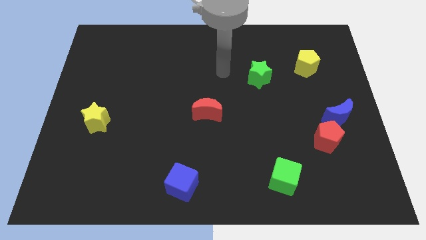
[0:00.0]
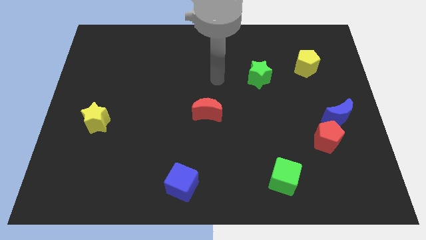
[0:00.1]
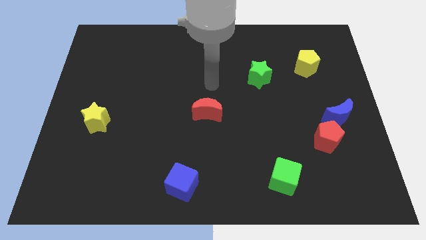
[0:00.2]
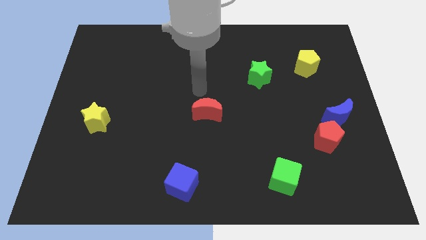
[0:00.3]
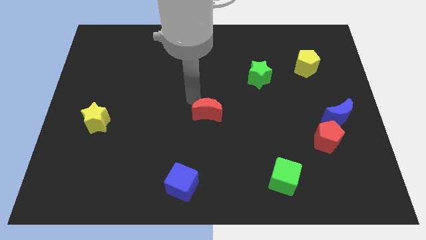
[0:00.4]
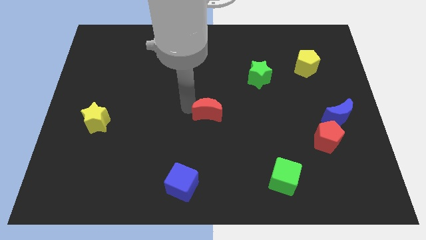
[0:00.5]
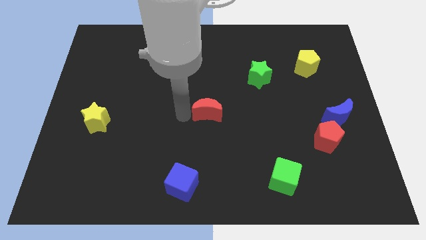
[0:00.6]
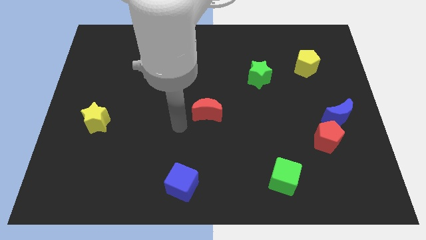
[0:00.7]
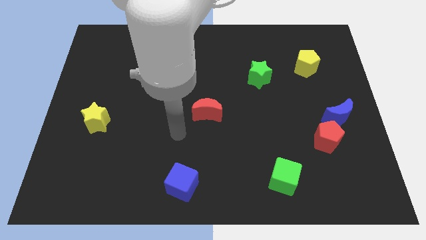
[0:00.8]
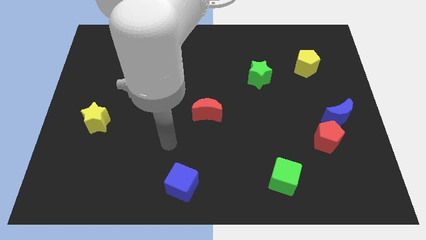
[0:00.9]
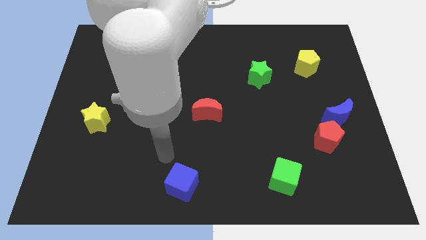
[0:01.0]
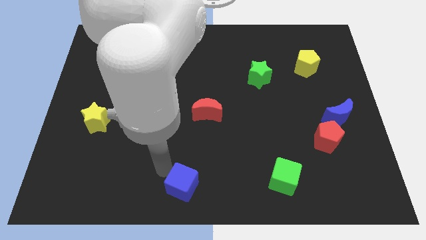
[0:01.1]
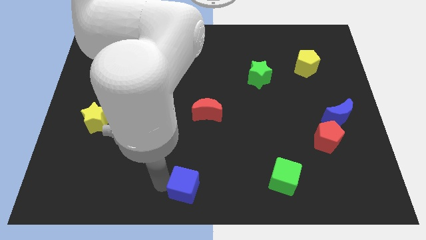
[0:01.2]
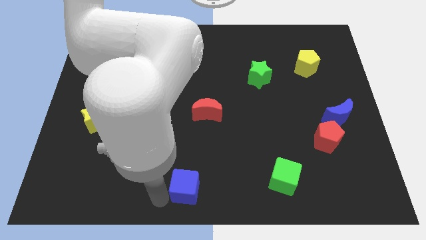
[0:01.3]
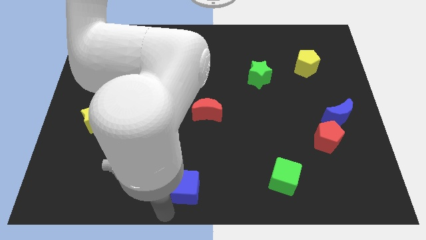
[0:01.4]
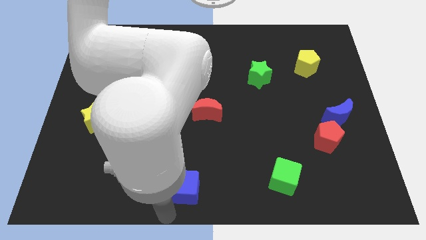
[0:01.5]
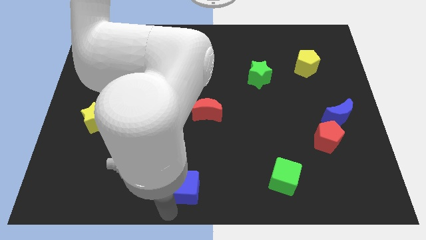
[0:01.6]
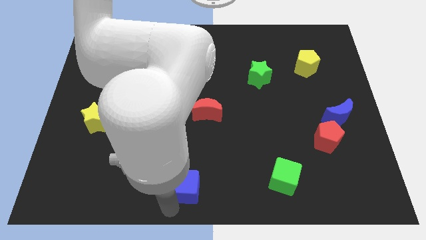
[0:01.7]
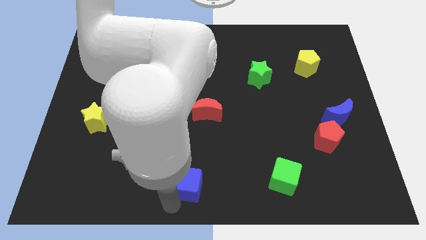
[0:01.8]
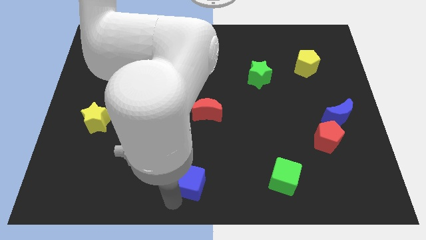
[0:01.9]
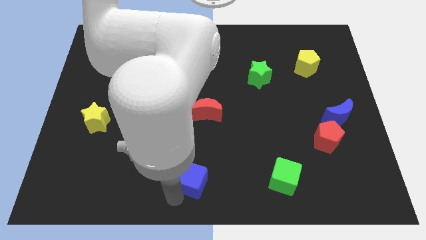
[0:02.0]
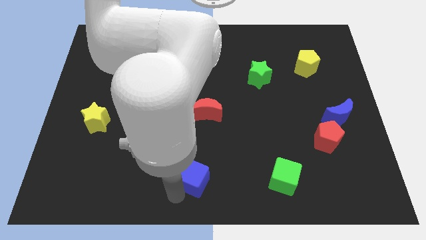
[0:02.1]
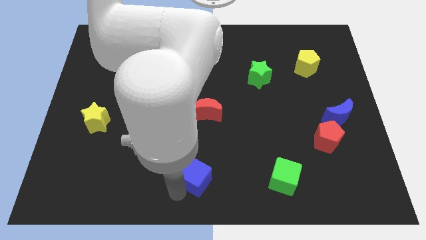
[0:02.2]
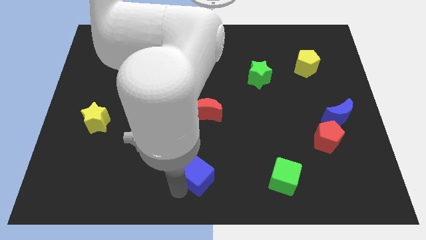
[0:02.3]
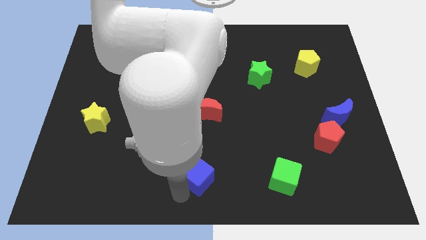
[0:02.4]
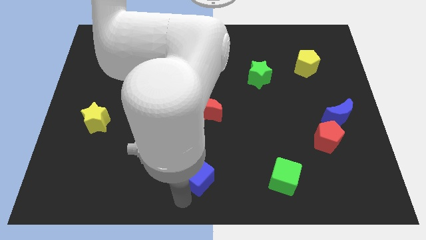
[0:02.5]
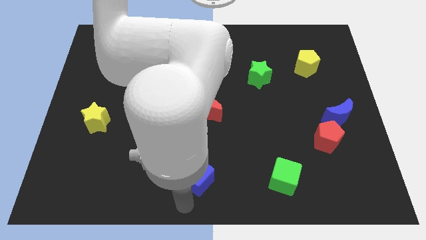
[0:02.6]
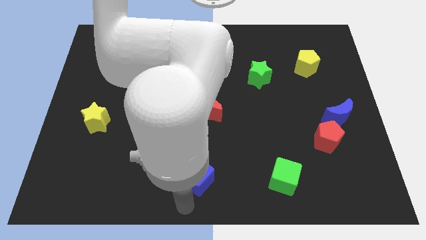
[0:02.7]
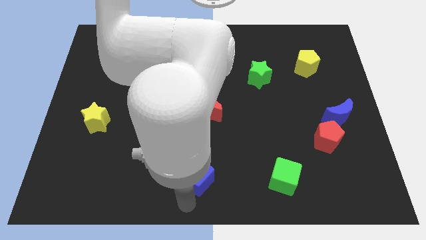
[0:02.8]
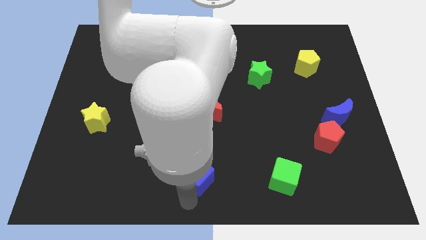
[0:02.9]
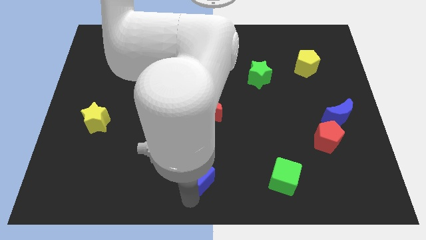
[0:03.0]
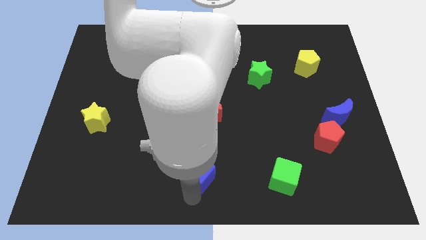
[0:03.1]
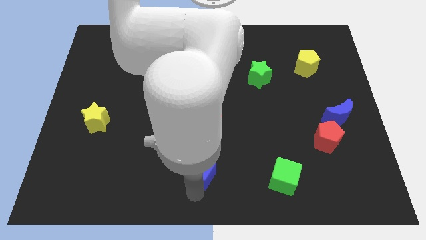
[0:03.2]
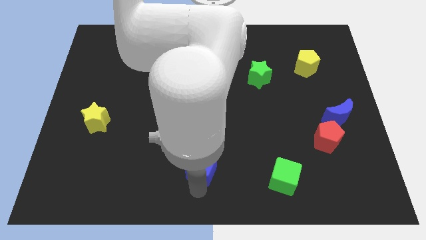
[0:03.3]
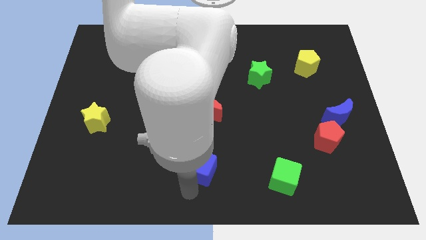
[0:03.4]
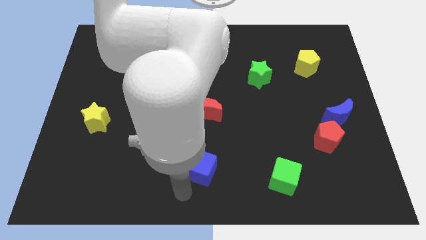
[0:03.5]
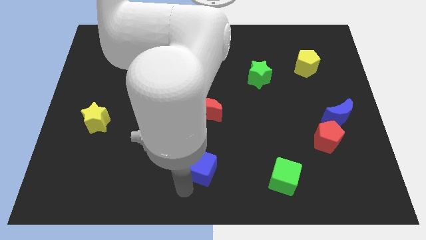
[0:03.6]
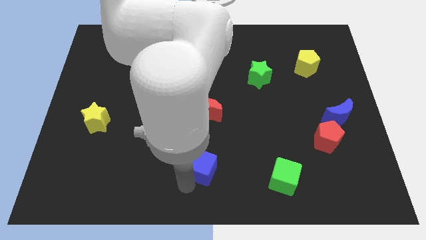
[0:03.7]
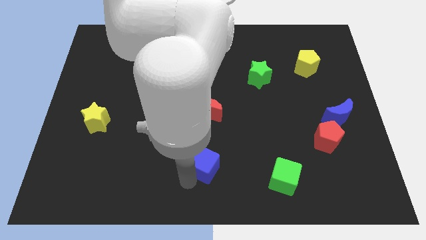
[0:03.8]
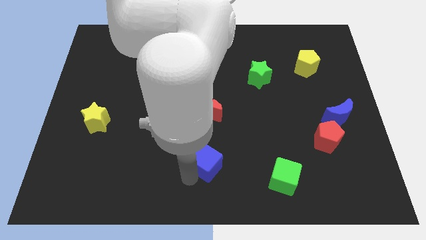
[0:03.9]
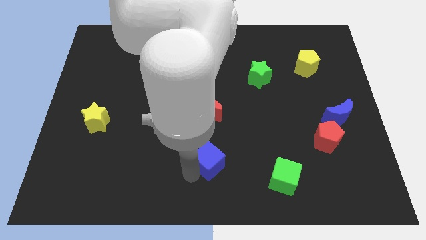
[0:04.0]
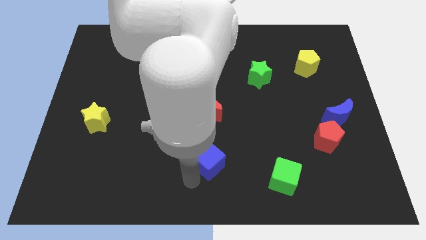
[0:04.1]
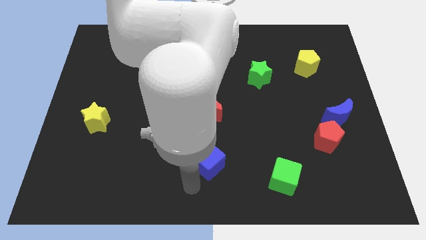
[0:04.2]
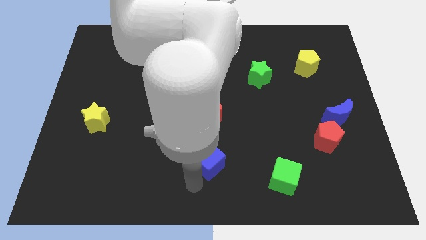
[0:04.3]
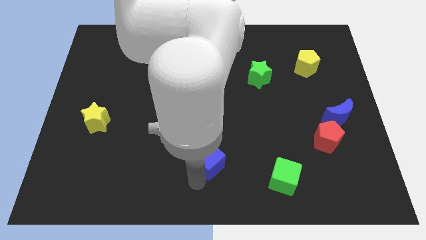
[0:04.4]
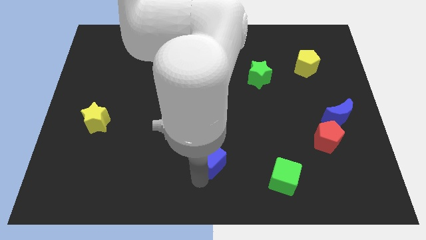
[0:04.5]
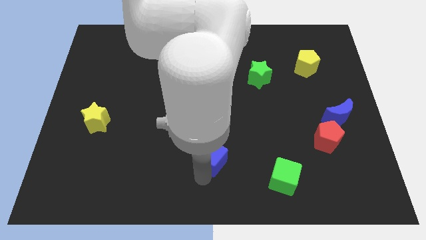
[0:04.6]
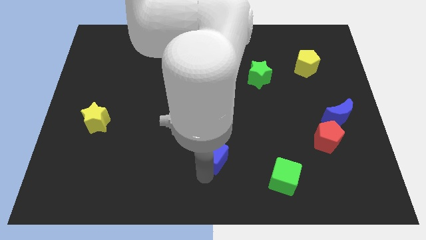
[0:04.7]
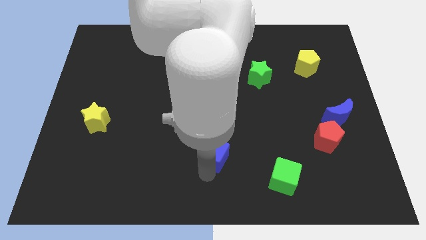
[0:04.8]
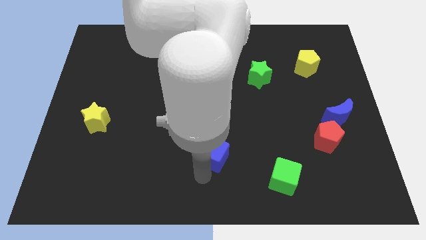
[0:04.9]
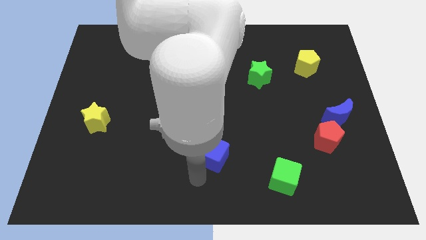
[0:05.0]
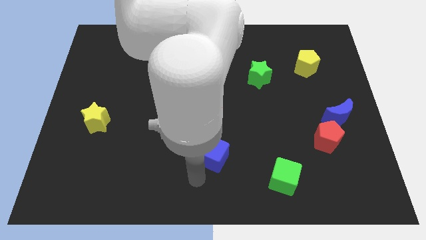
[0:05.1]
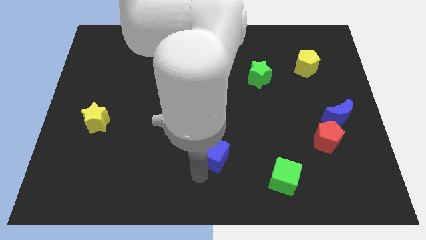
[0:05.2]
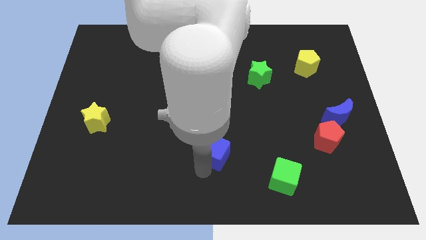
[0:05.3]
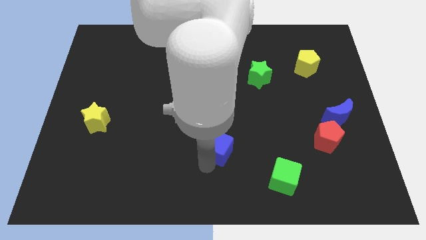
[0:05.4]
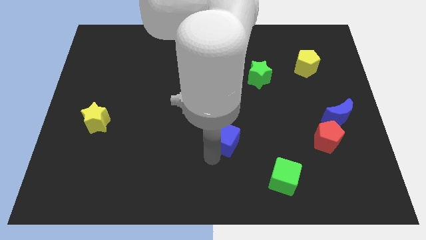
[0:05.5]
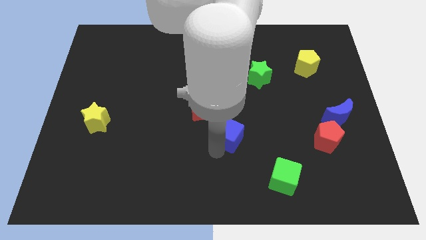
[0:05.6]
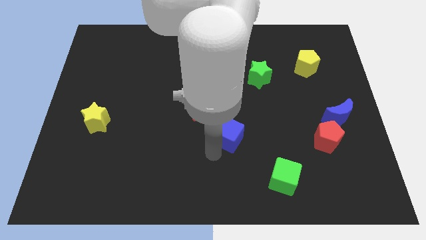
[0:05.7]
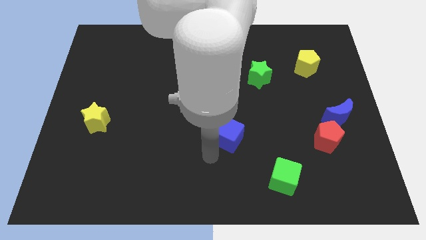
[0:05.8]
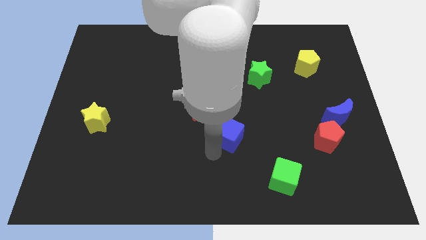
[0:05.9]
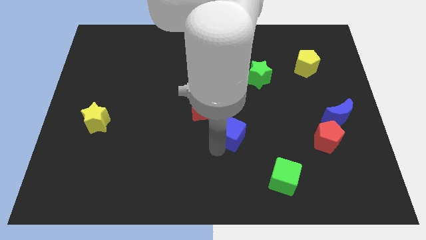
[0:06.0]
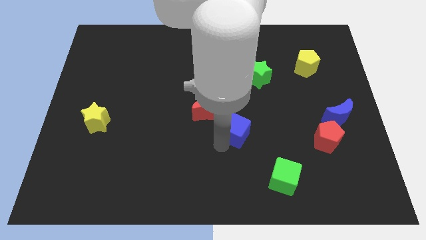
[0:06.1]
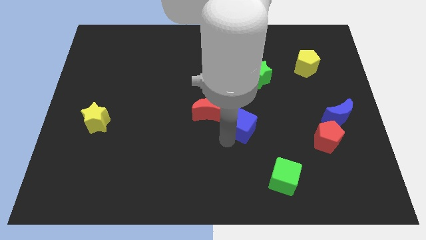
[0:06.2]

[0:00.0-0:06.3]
put the blue cube right of the red moon
